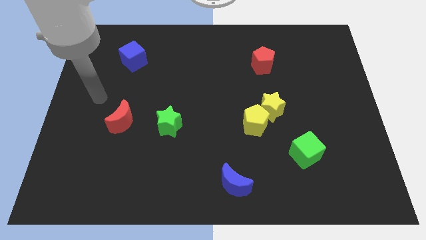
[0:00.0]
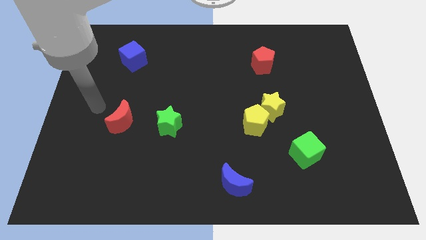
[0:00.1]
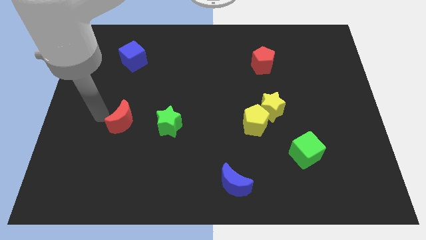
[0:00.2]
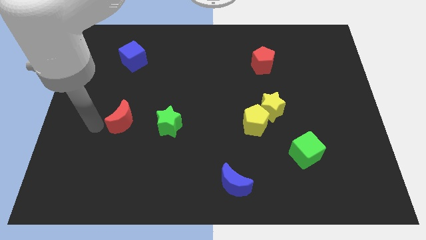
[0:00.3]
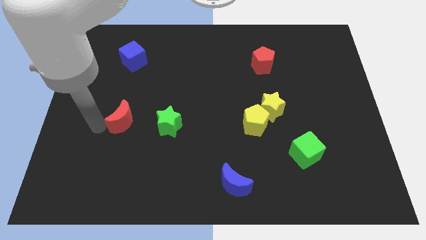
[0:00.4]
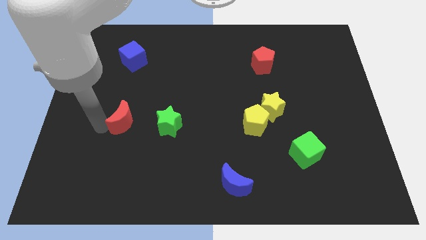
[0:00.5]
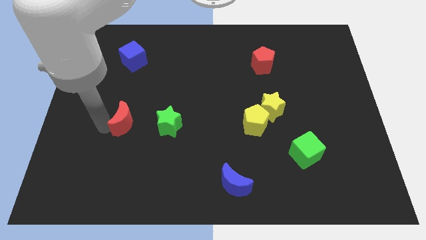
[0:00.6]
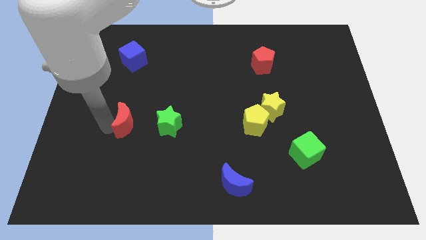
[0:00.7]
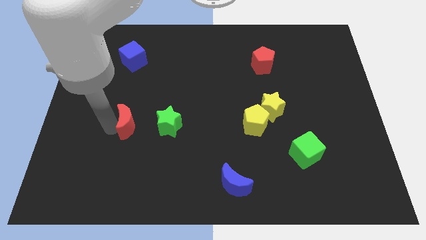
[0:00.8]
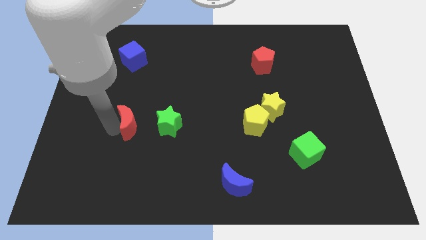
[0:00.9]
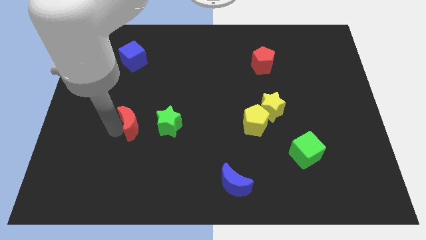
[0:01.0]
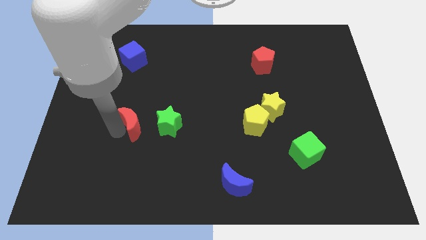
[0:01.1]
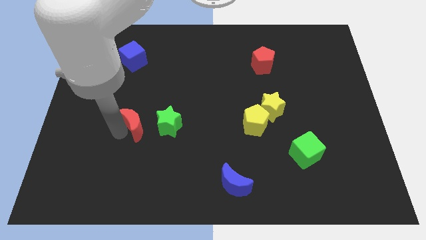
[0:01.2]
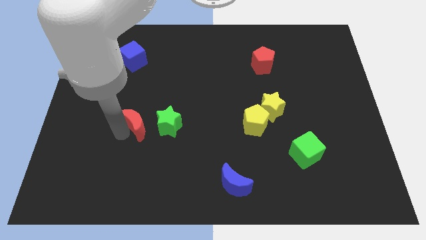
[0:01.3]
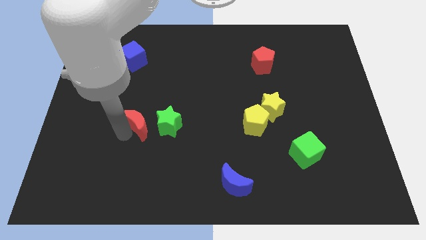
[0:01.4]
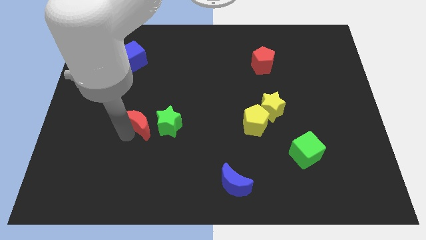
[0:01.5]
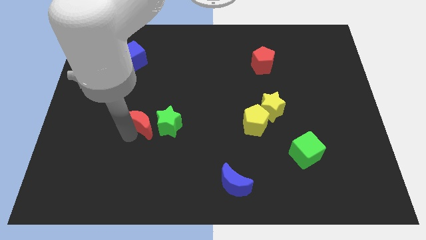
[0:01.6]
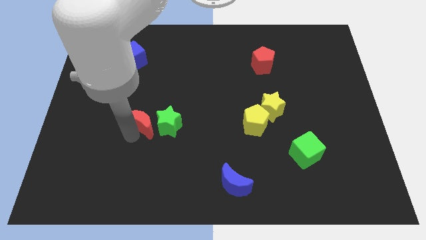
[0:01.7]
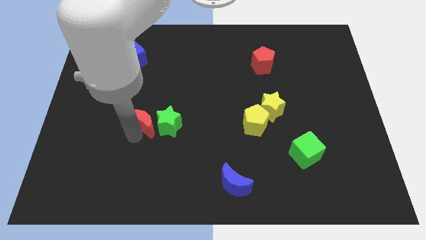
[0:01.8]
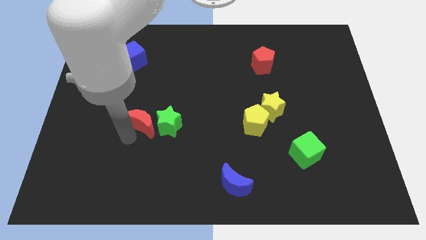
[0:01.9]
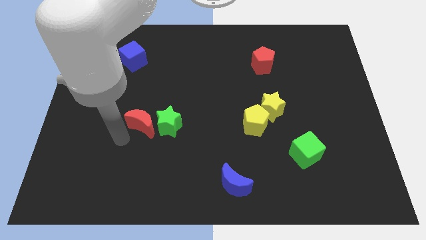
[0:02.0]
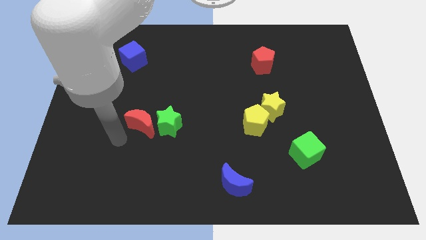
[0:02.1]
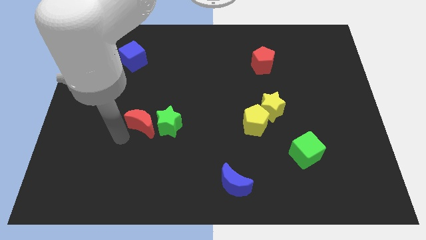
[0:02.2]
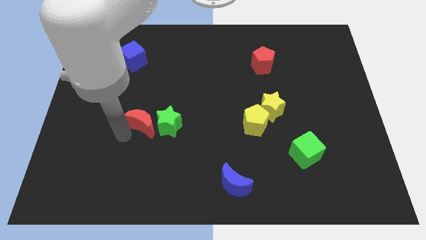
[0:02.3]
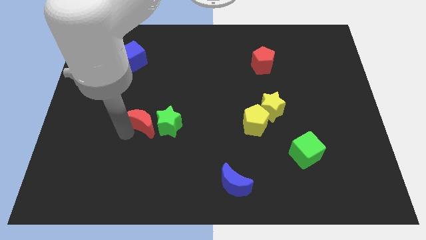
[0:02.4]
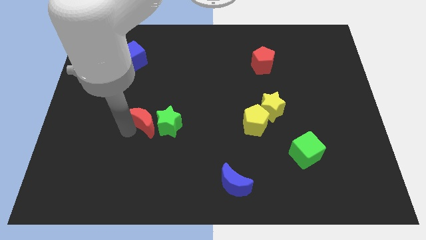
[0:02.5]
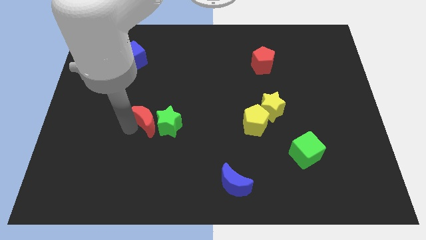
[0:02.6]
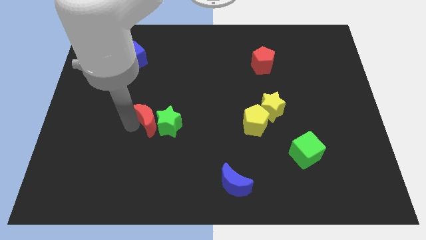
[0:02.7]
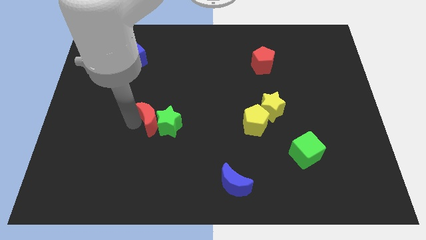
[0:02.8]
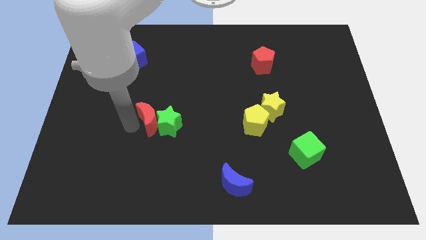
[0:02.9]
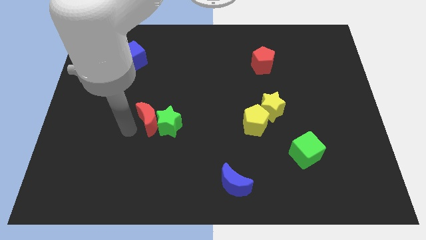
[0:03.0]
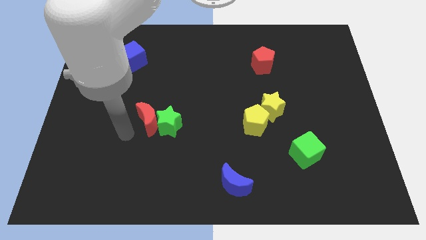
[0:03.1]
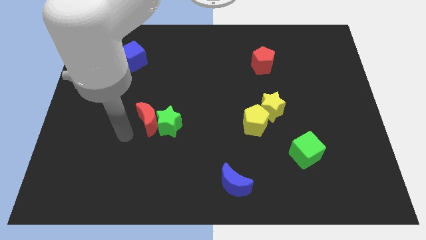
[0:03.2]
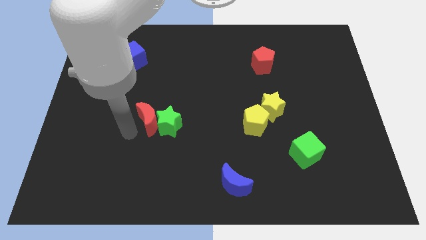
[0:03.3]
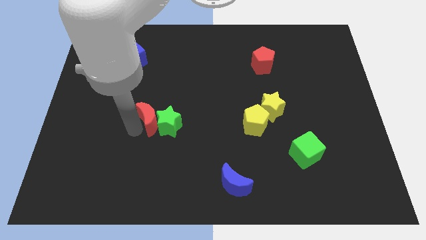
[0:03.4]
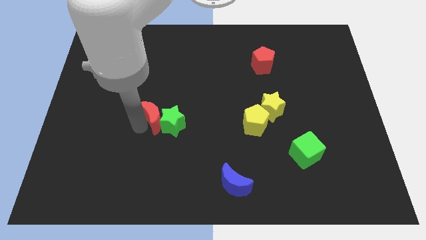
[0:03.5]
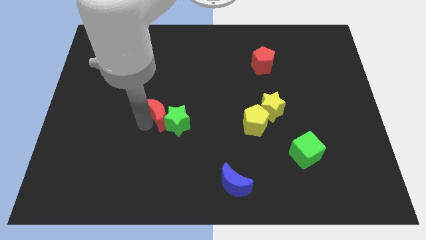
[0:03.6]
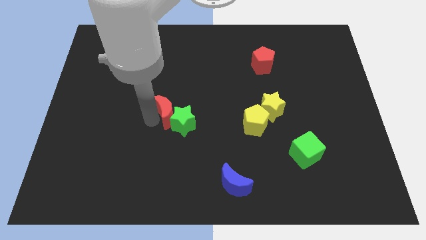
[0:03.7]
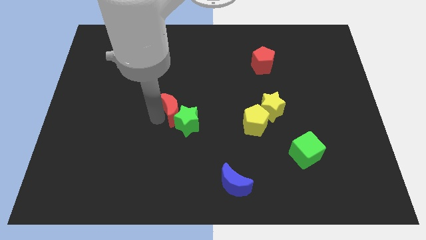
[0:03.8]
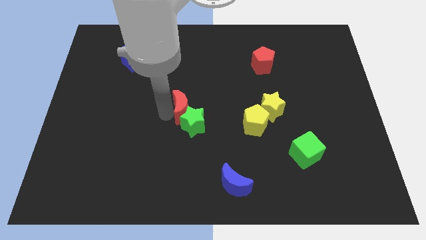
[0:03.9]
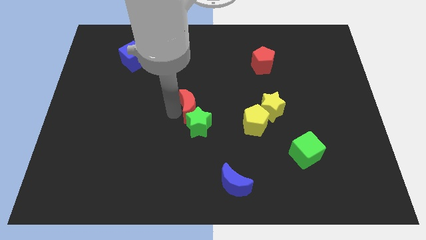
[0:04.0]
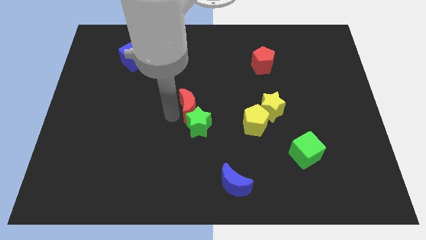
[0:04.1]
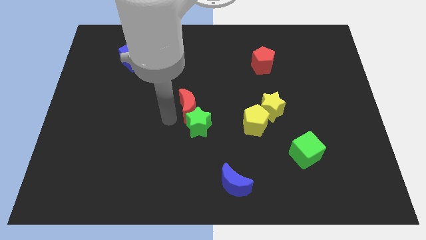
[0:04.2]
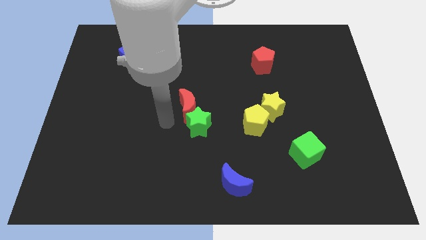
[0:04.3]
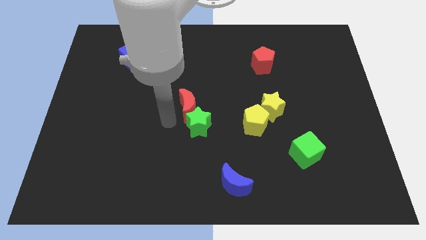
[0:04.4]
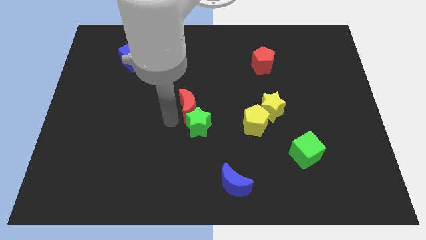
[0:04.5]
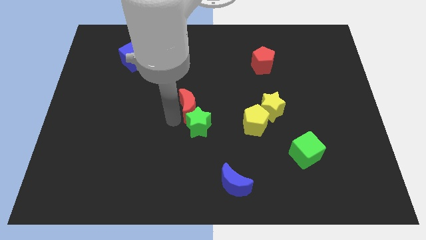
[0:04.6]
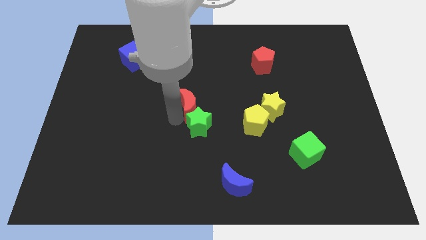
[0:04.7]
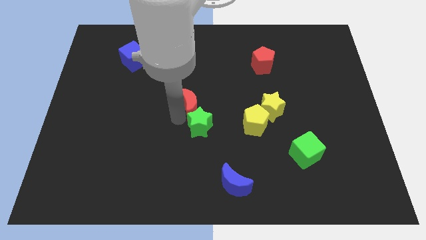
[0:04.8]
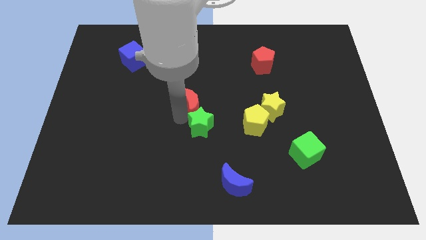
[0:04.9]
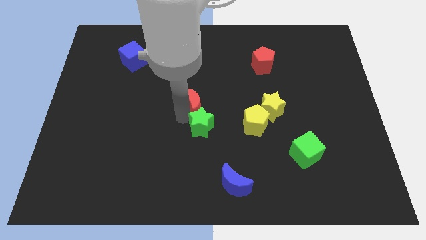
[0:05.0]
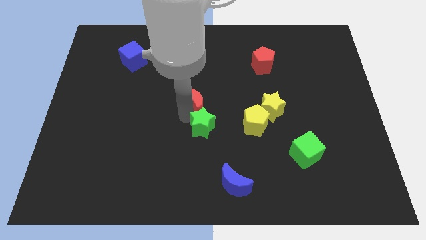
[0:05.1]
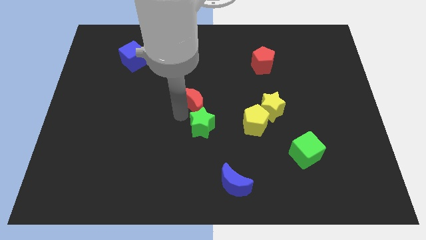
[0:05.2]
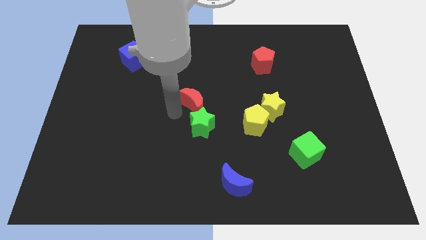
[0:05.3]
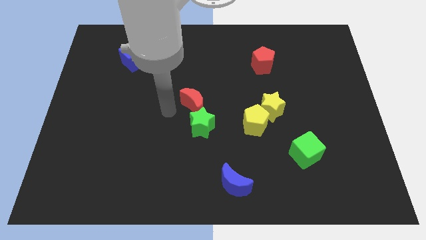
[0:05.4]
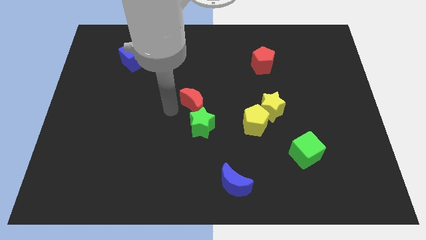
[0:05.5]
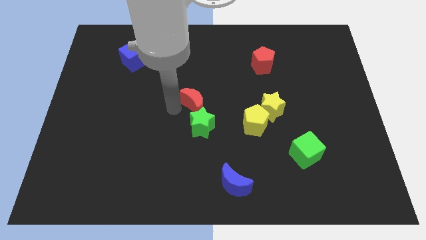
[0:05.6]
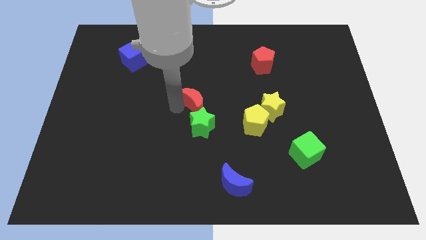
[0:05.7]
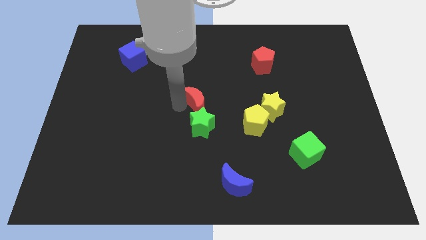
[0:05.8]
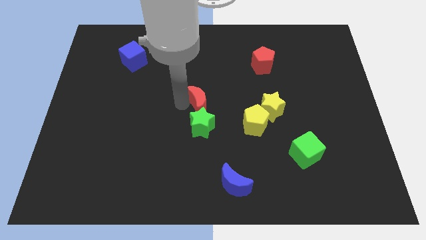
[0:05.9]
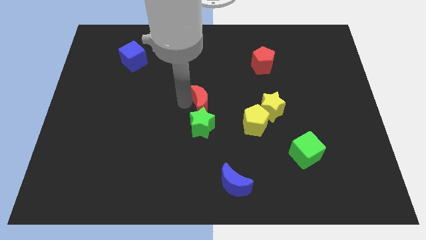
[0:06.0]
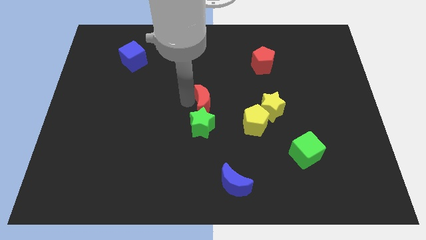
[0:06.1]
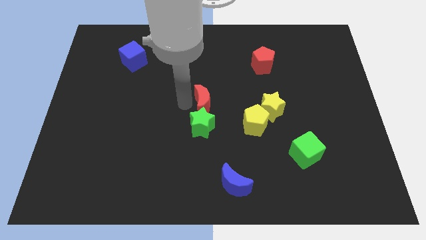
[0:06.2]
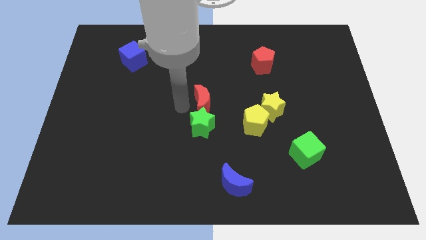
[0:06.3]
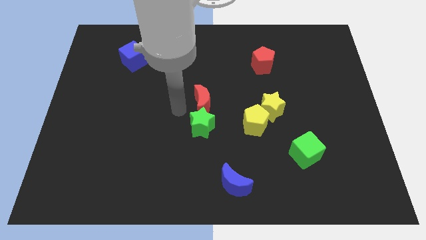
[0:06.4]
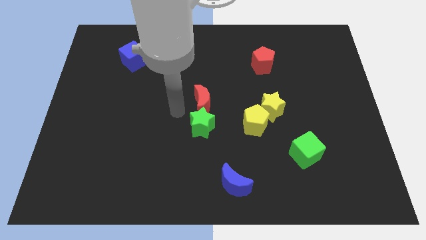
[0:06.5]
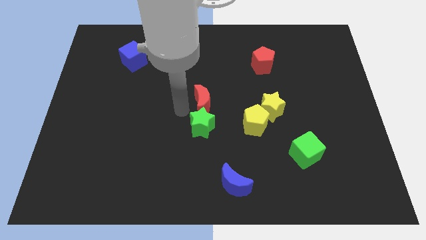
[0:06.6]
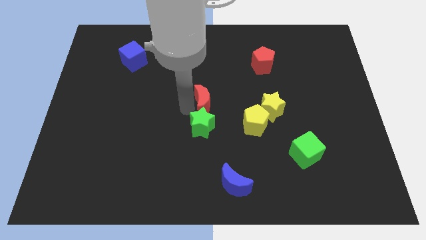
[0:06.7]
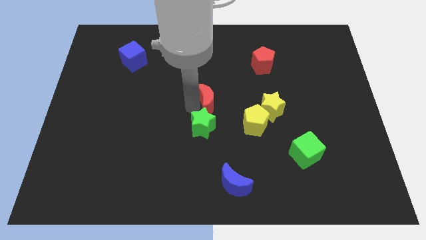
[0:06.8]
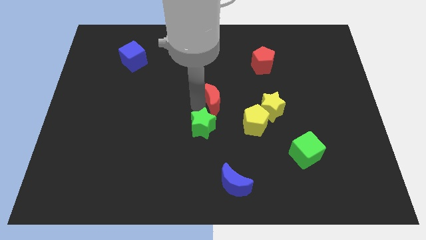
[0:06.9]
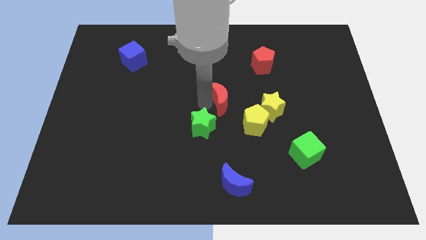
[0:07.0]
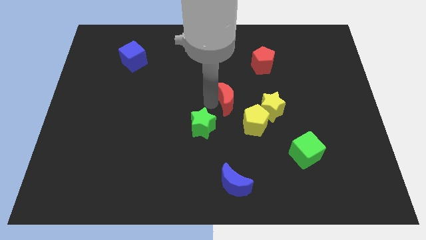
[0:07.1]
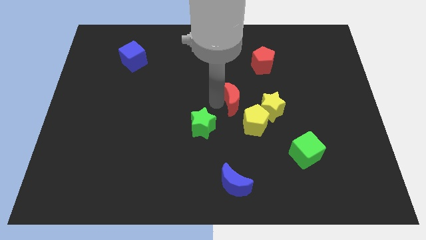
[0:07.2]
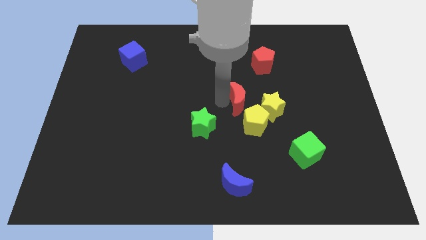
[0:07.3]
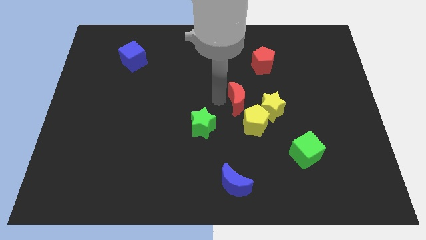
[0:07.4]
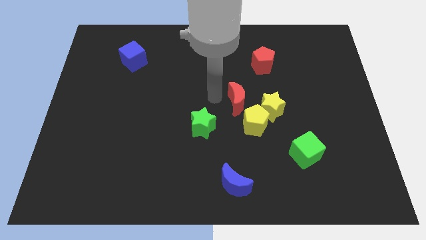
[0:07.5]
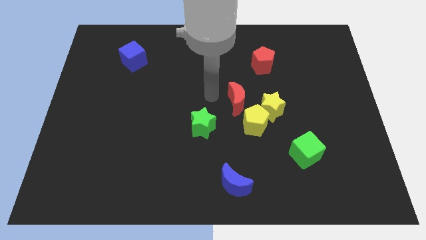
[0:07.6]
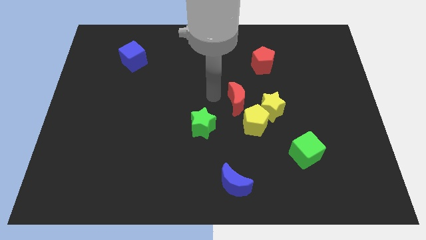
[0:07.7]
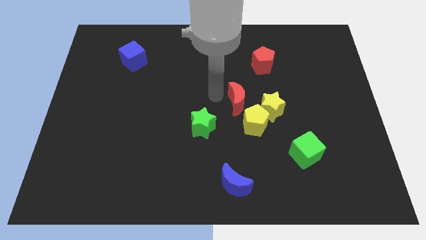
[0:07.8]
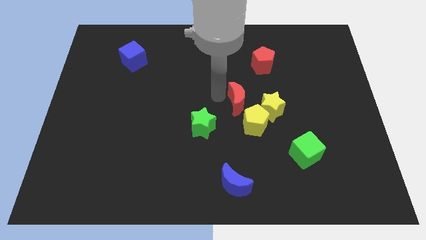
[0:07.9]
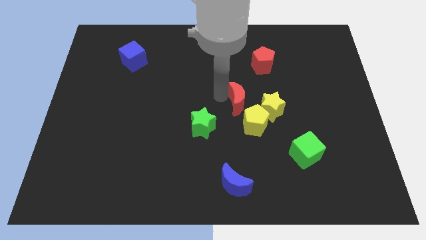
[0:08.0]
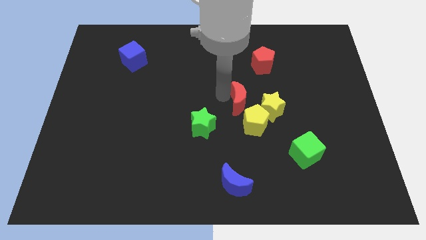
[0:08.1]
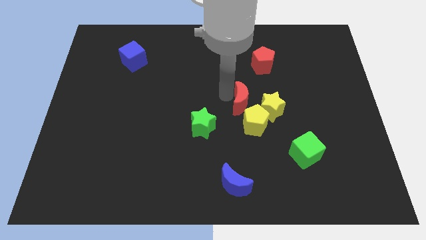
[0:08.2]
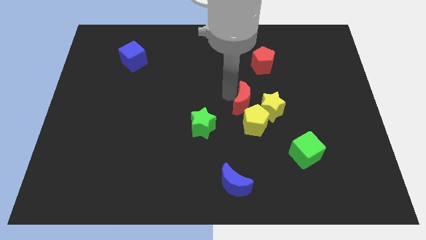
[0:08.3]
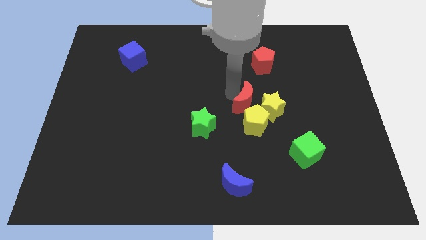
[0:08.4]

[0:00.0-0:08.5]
slide the red moon next to the yellow star
